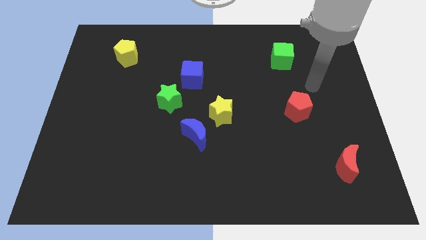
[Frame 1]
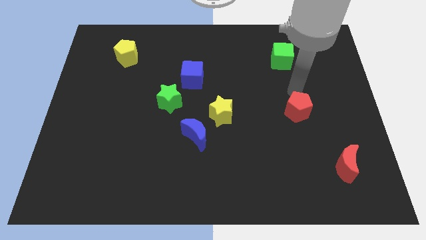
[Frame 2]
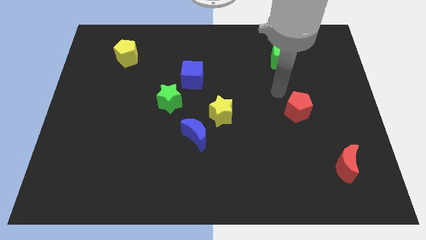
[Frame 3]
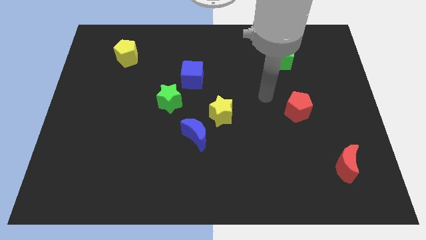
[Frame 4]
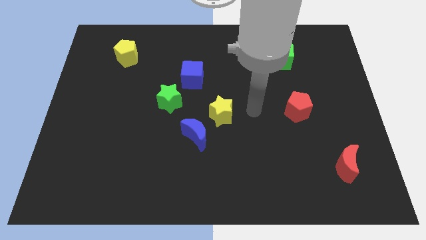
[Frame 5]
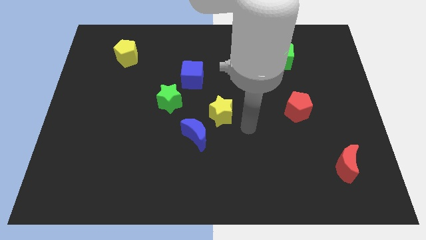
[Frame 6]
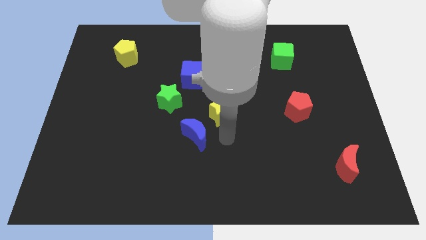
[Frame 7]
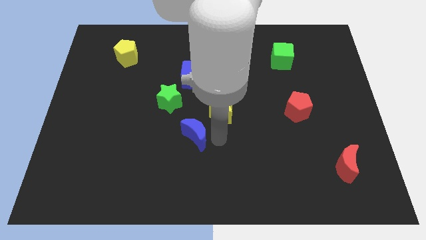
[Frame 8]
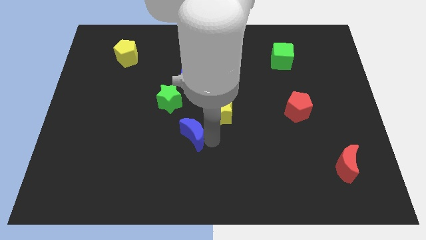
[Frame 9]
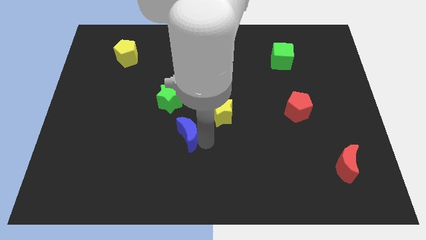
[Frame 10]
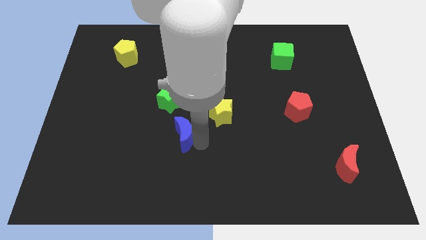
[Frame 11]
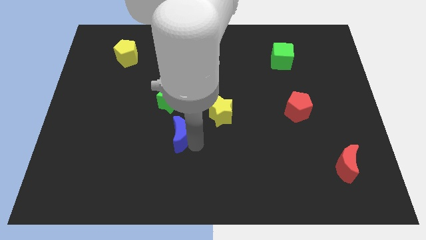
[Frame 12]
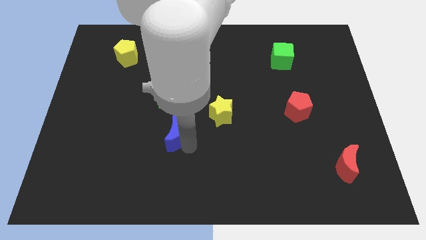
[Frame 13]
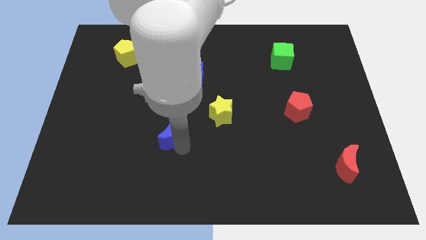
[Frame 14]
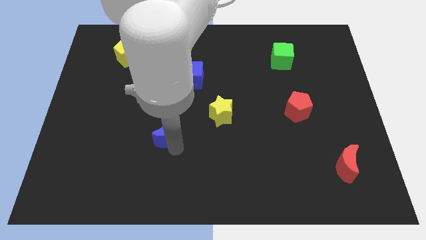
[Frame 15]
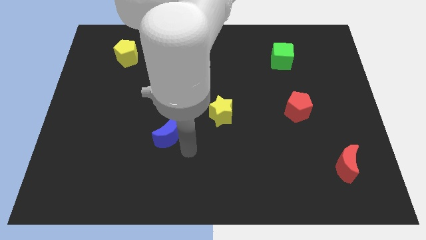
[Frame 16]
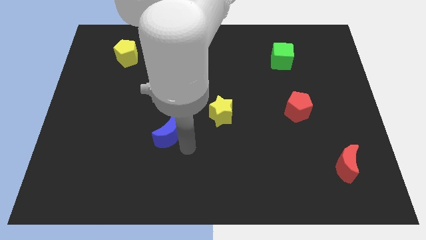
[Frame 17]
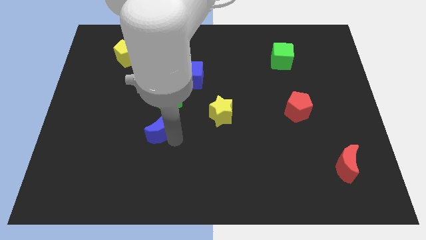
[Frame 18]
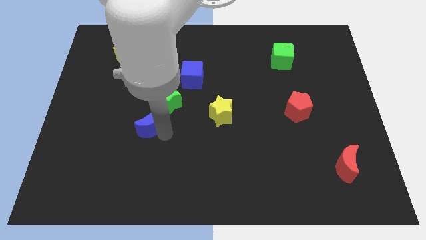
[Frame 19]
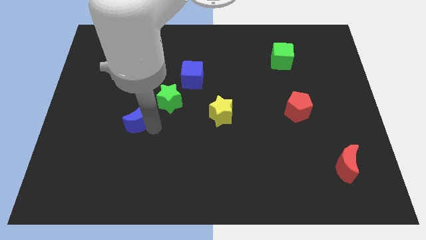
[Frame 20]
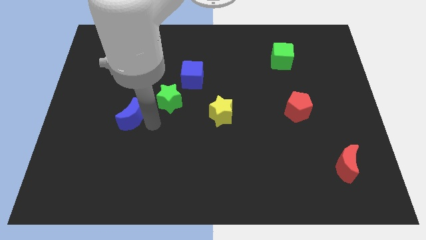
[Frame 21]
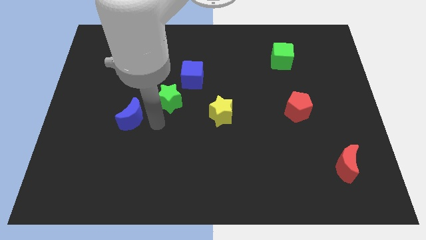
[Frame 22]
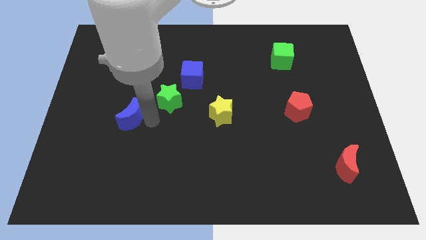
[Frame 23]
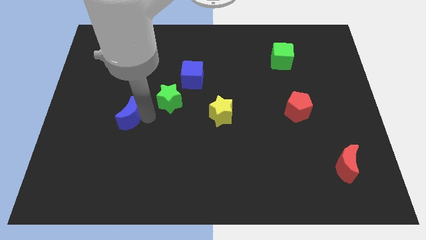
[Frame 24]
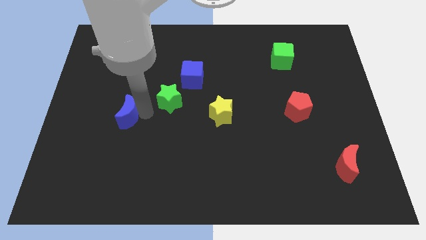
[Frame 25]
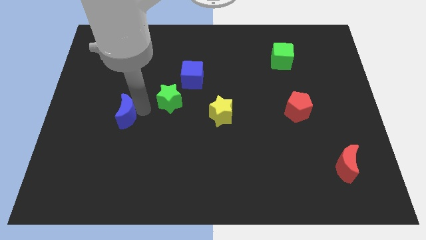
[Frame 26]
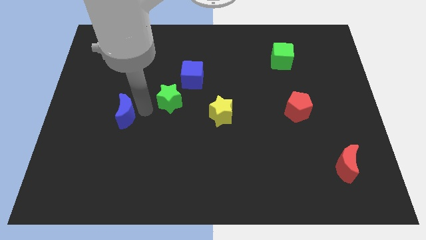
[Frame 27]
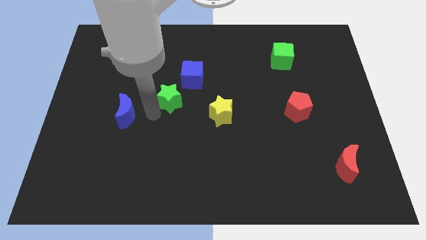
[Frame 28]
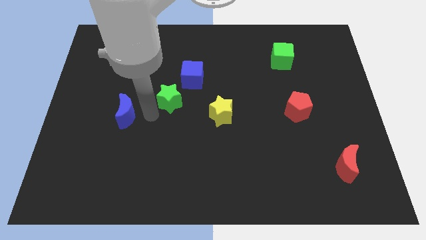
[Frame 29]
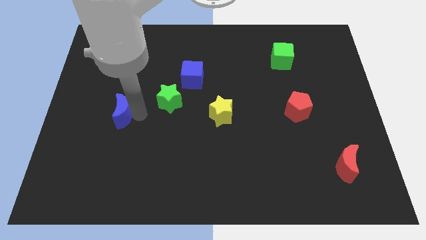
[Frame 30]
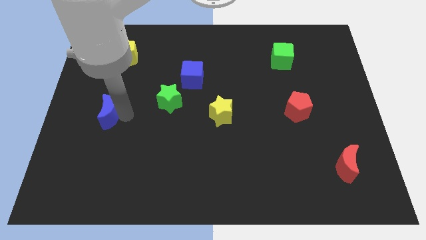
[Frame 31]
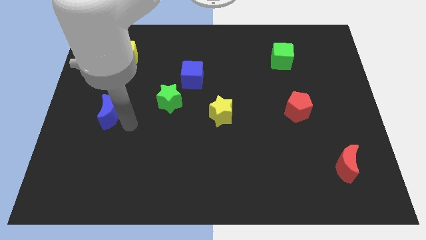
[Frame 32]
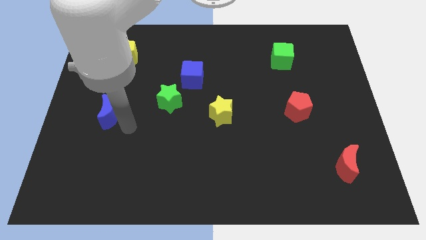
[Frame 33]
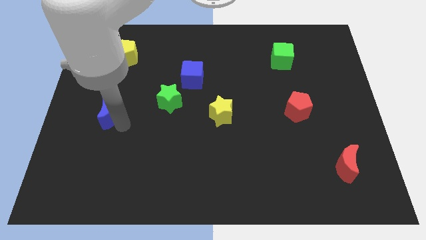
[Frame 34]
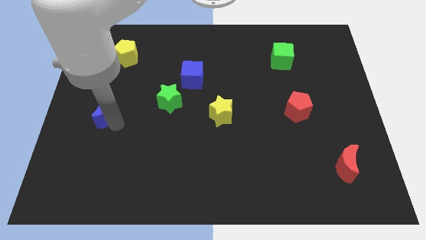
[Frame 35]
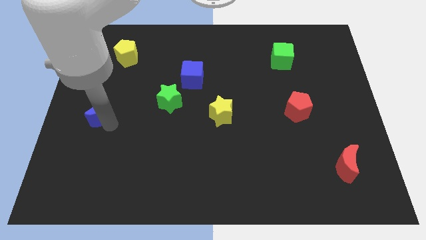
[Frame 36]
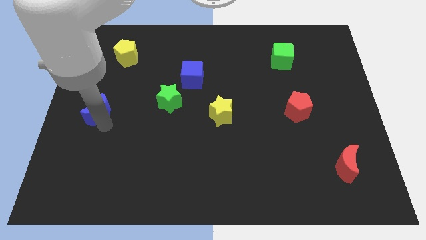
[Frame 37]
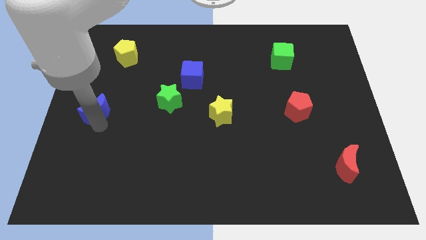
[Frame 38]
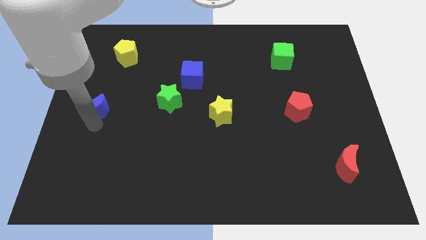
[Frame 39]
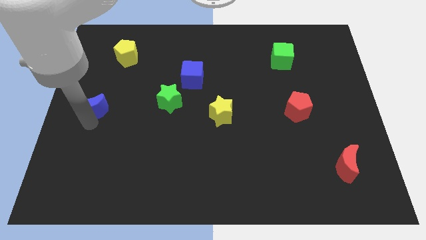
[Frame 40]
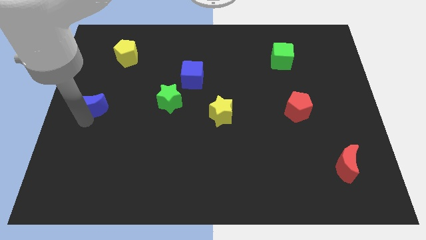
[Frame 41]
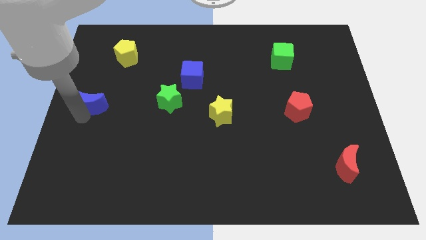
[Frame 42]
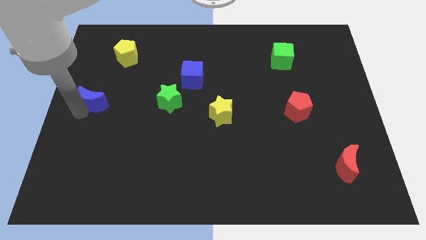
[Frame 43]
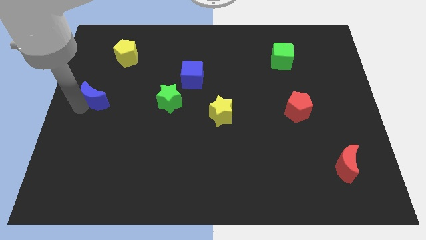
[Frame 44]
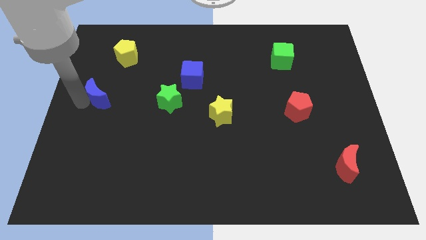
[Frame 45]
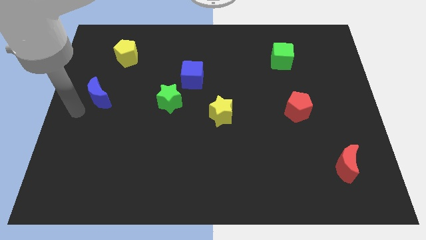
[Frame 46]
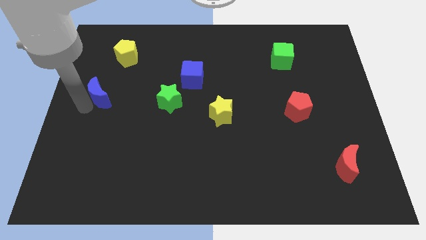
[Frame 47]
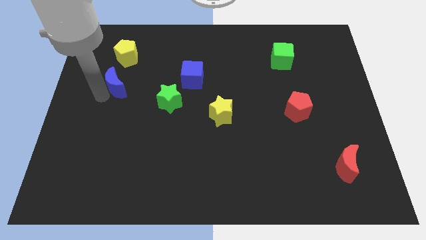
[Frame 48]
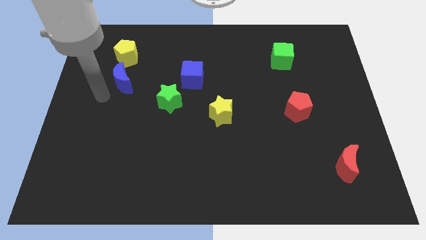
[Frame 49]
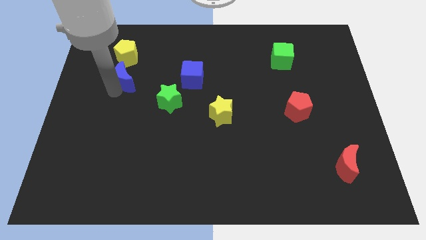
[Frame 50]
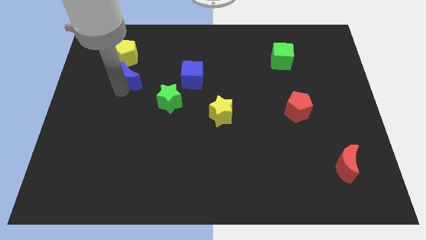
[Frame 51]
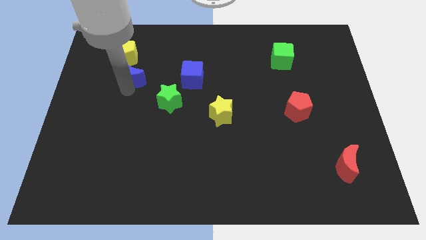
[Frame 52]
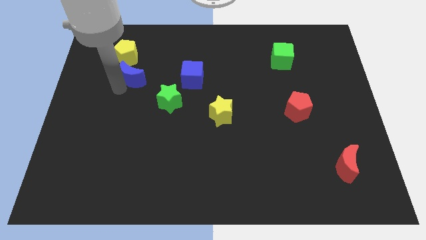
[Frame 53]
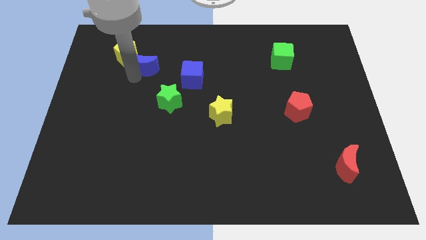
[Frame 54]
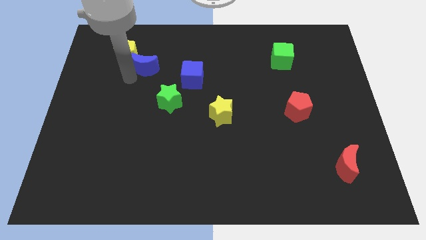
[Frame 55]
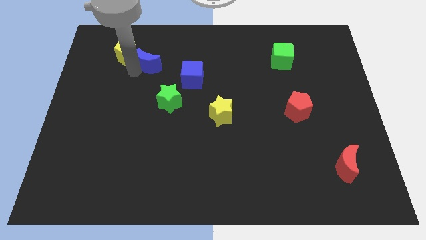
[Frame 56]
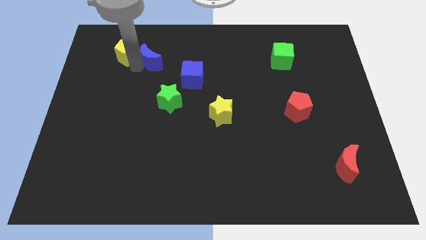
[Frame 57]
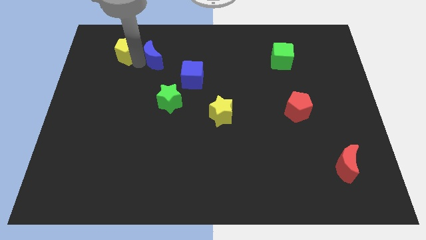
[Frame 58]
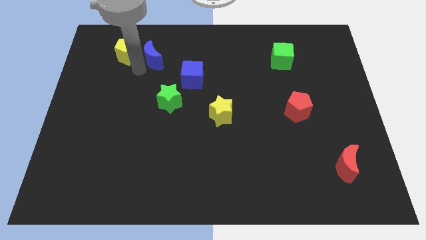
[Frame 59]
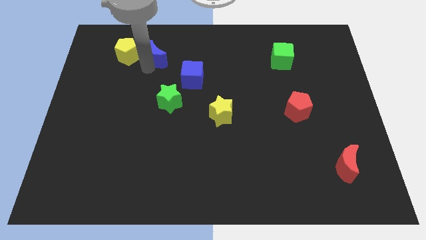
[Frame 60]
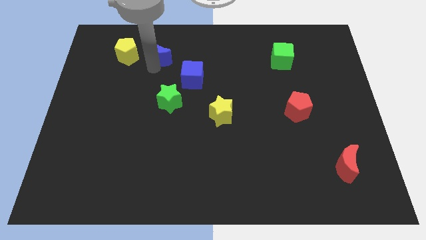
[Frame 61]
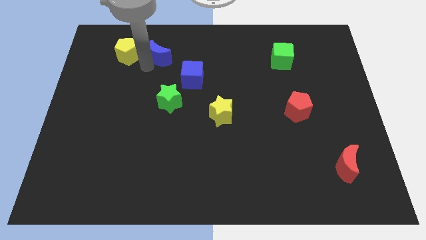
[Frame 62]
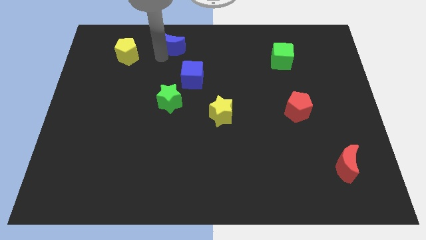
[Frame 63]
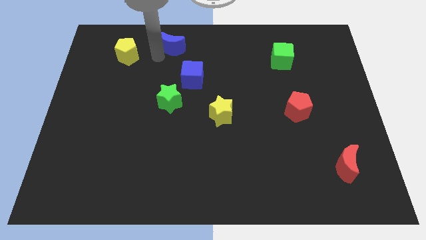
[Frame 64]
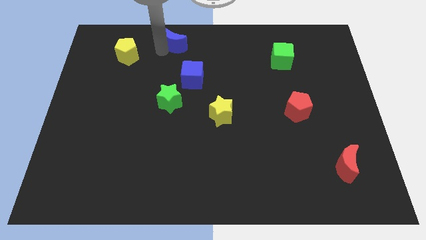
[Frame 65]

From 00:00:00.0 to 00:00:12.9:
move the blue moon to the towards your base
